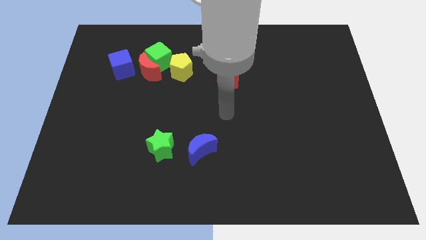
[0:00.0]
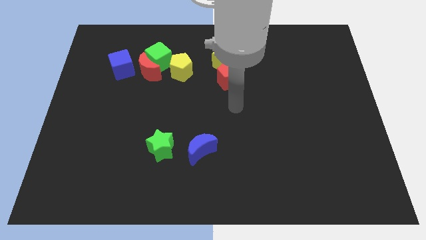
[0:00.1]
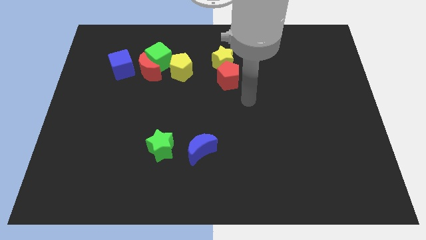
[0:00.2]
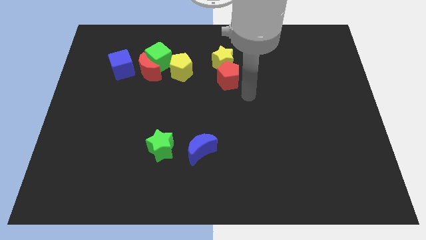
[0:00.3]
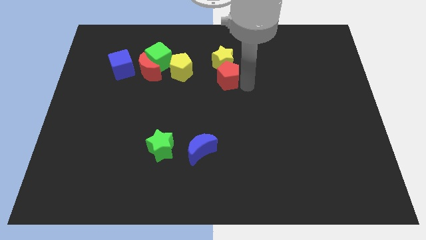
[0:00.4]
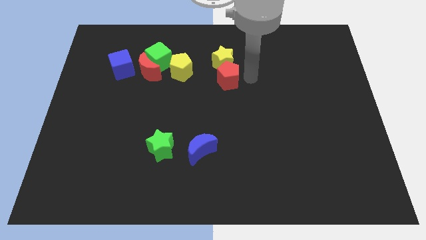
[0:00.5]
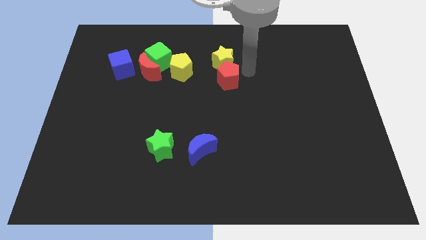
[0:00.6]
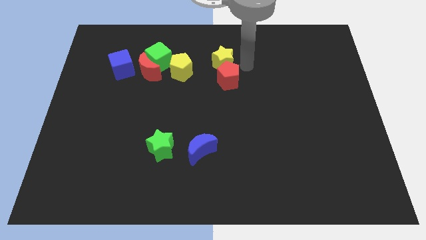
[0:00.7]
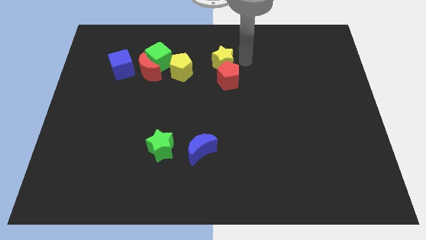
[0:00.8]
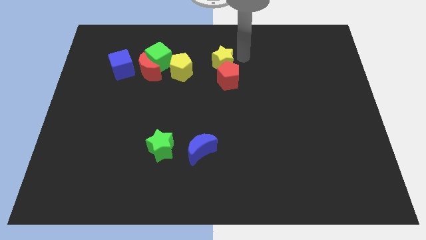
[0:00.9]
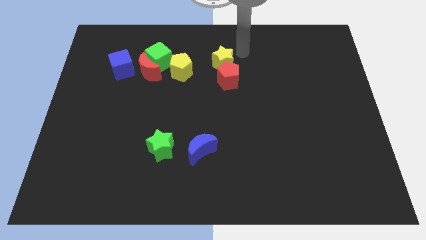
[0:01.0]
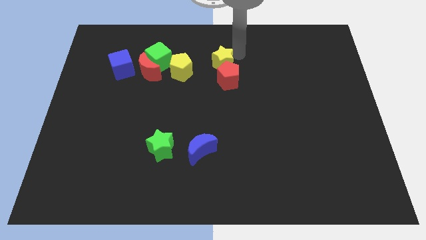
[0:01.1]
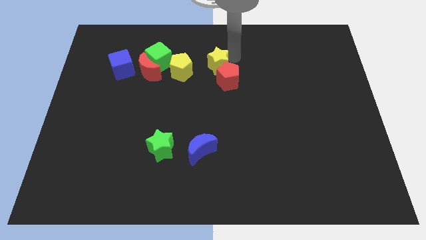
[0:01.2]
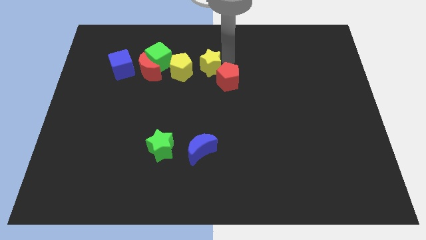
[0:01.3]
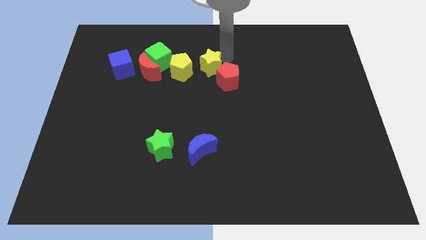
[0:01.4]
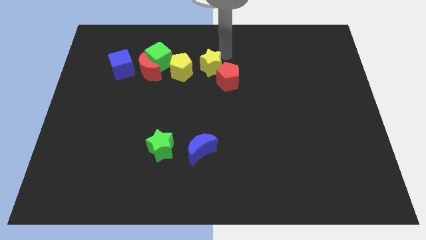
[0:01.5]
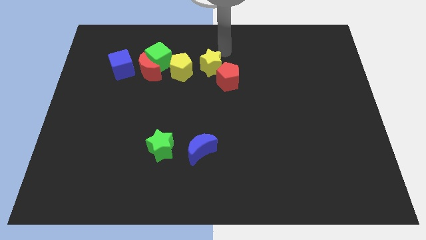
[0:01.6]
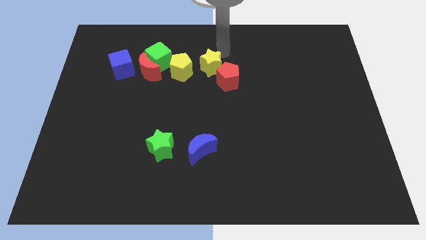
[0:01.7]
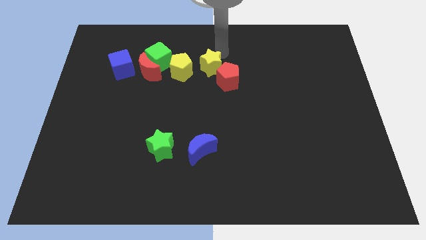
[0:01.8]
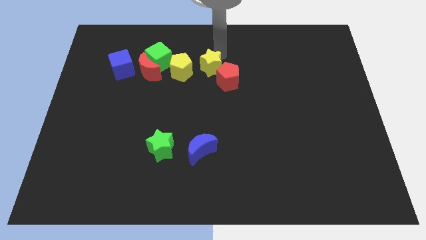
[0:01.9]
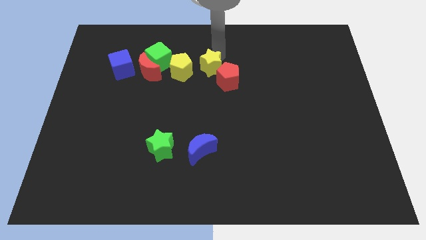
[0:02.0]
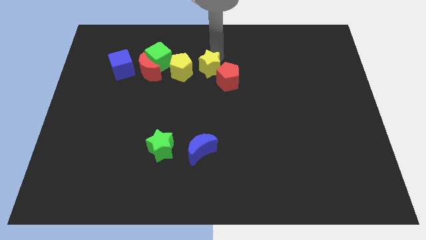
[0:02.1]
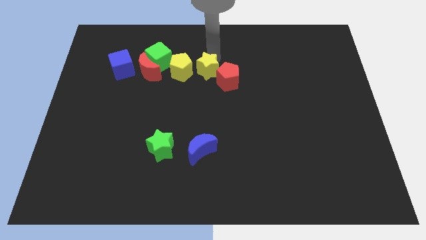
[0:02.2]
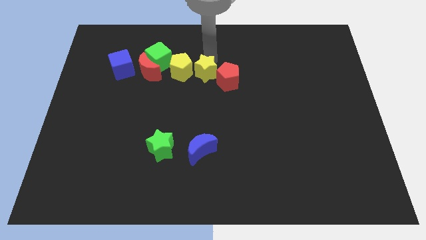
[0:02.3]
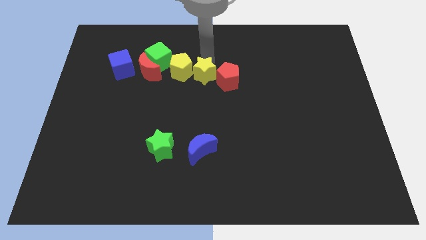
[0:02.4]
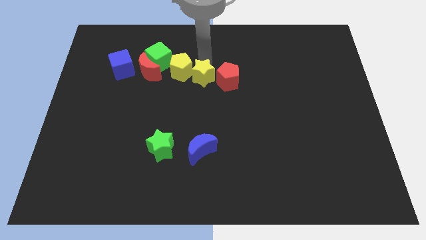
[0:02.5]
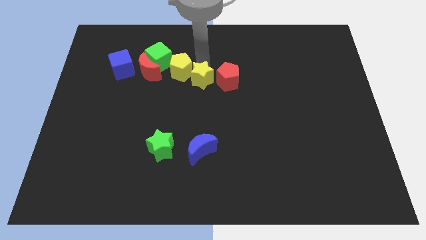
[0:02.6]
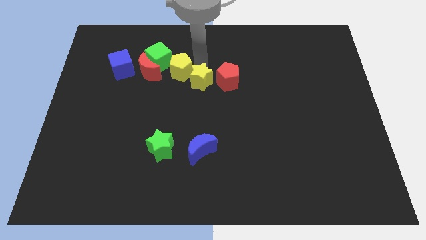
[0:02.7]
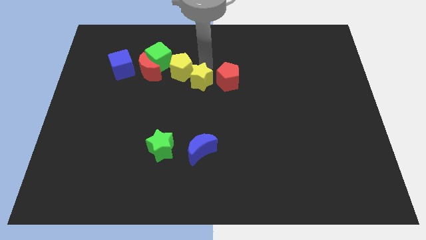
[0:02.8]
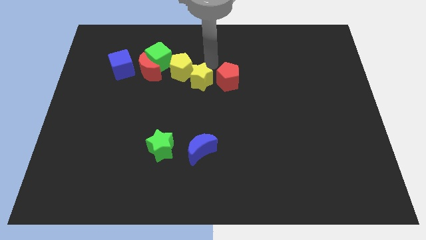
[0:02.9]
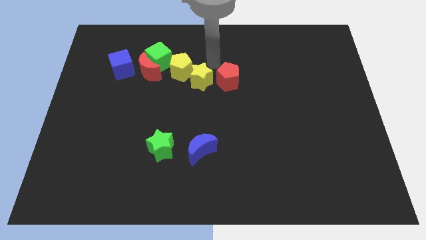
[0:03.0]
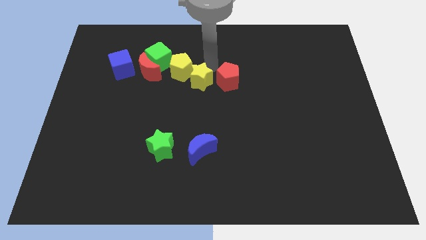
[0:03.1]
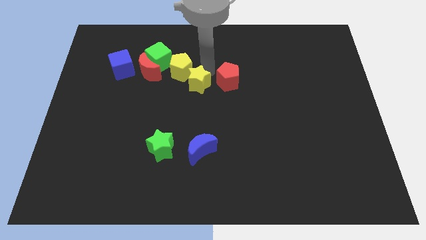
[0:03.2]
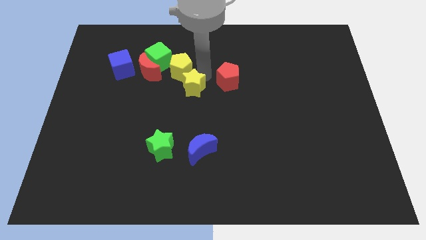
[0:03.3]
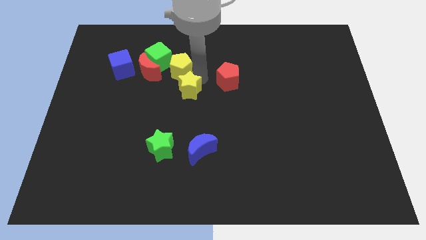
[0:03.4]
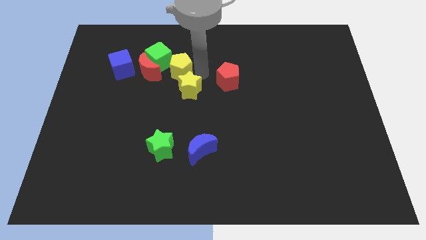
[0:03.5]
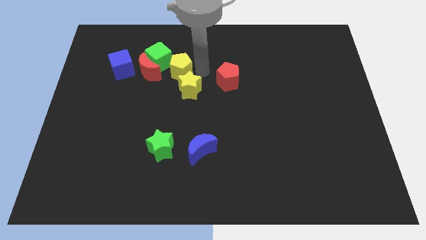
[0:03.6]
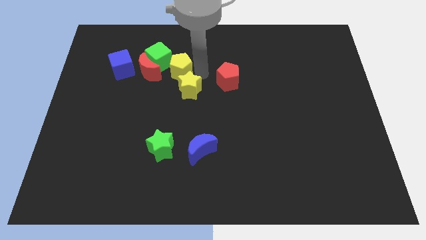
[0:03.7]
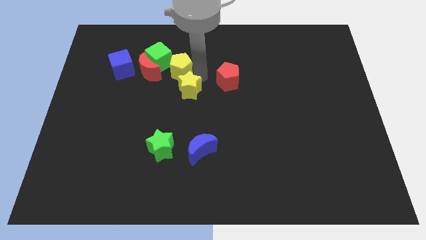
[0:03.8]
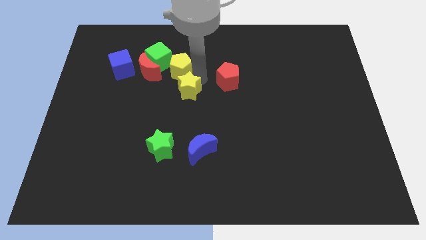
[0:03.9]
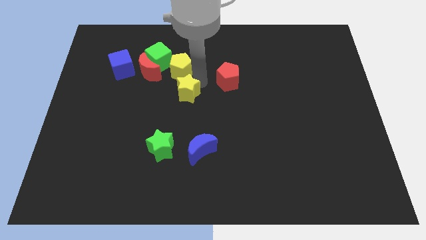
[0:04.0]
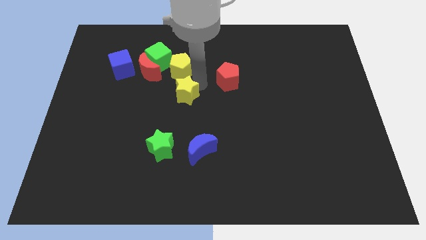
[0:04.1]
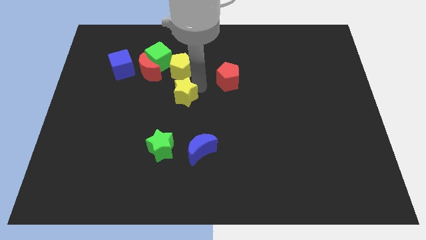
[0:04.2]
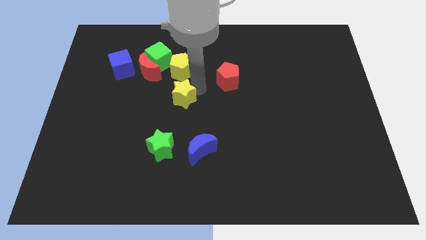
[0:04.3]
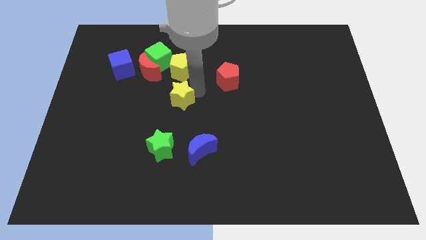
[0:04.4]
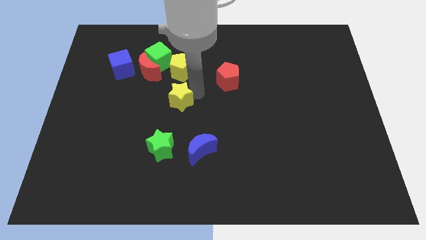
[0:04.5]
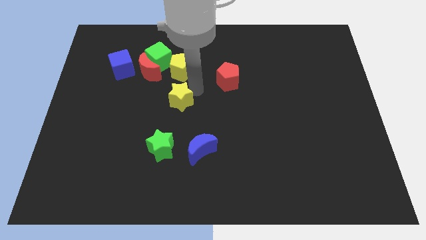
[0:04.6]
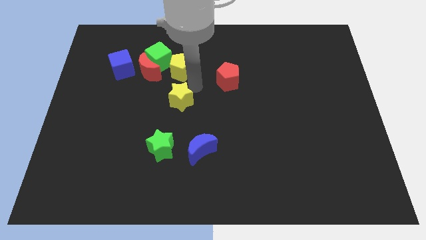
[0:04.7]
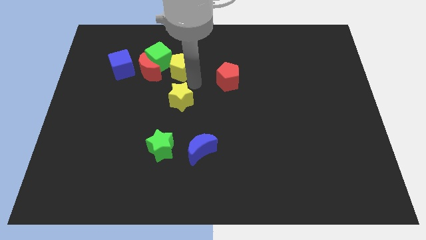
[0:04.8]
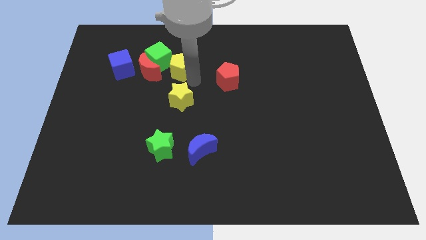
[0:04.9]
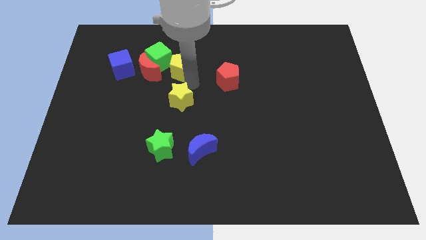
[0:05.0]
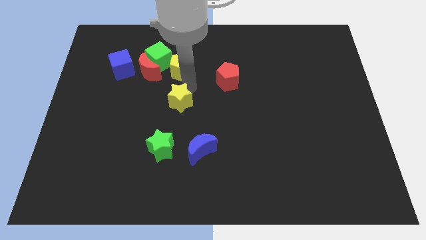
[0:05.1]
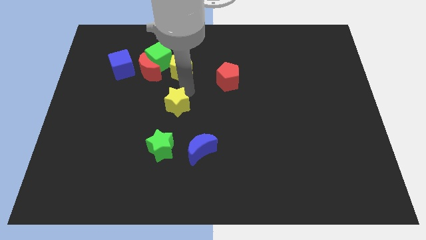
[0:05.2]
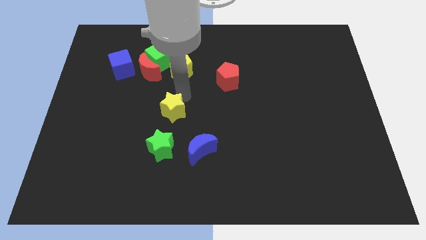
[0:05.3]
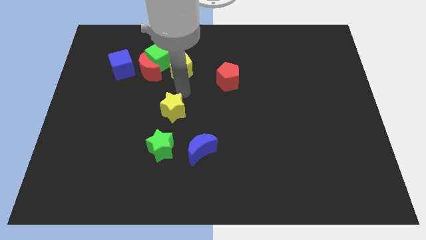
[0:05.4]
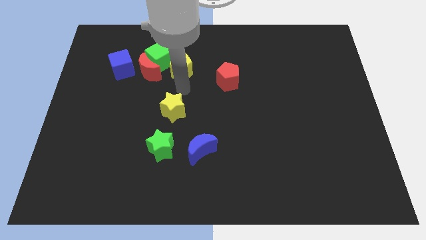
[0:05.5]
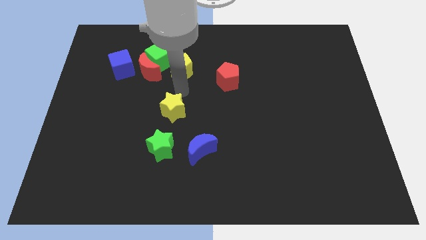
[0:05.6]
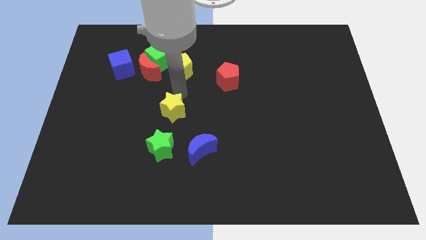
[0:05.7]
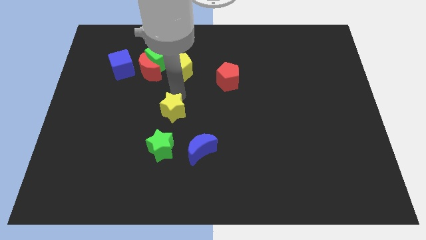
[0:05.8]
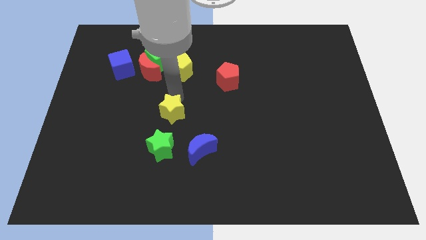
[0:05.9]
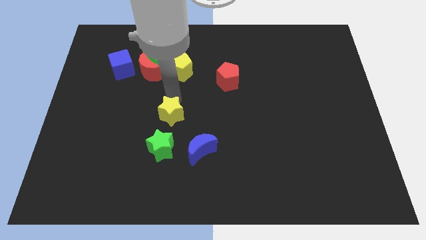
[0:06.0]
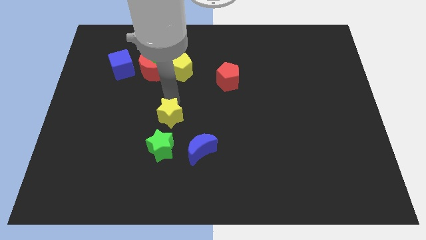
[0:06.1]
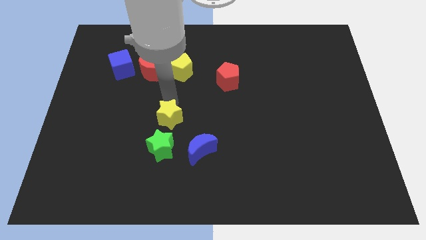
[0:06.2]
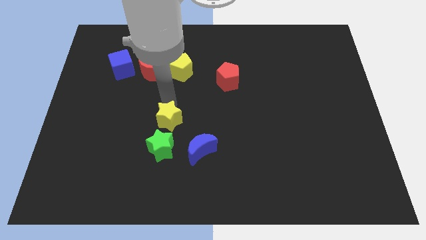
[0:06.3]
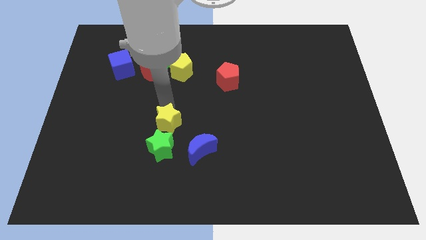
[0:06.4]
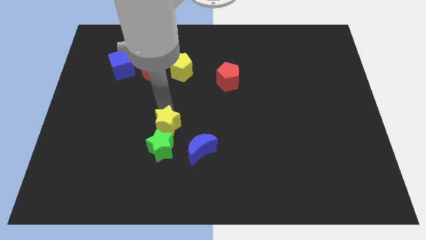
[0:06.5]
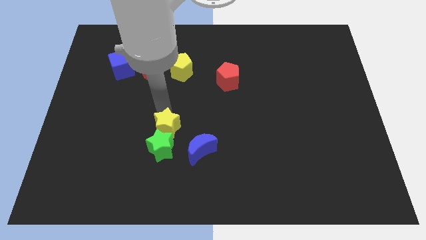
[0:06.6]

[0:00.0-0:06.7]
put the yellow star to the green star

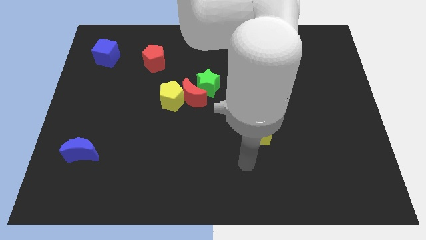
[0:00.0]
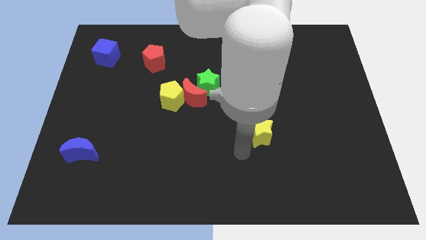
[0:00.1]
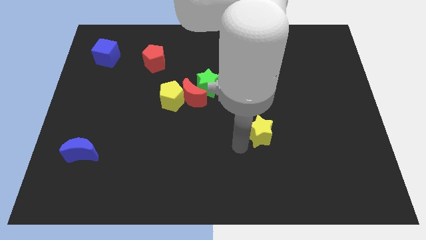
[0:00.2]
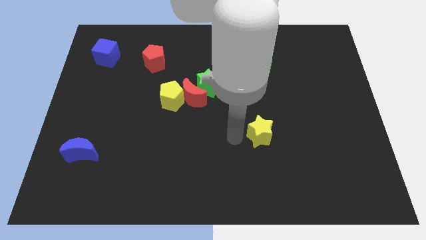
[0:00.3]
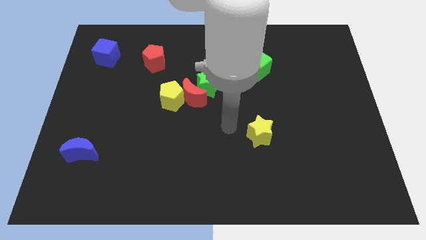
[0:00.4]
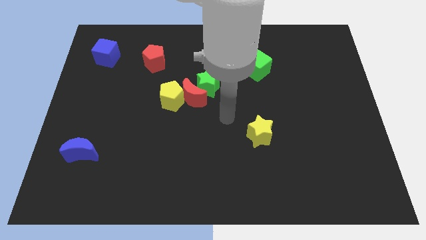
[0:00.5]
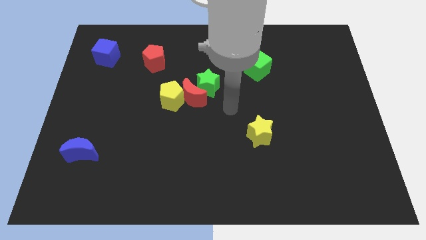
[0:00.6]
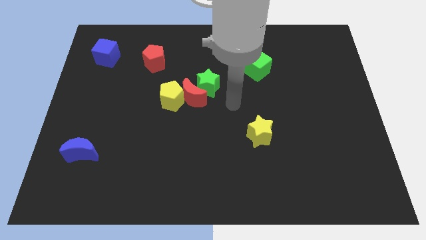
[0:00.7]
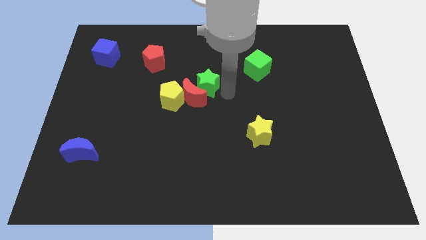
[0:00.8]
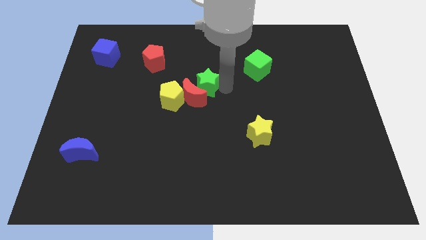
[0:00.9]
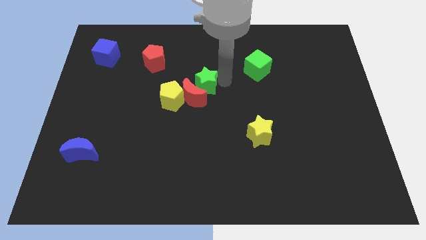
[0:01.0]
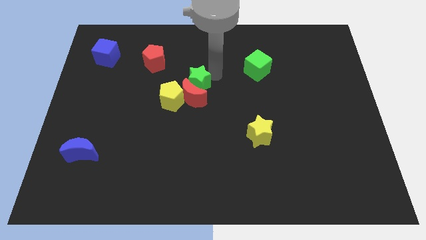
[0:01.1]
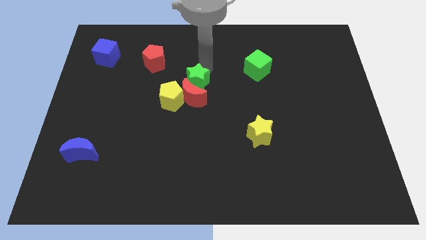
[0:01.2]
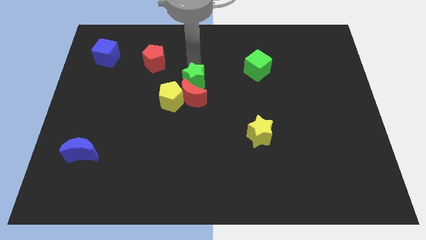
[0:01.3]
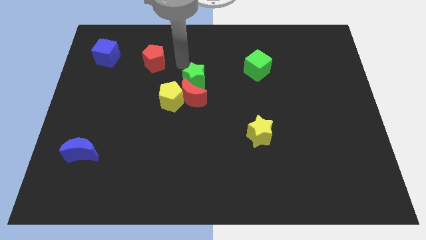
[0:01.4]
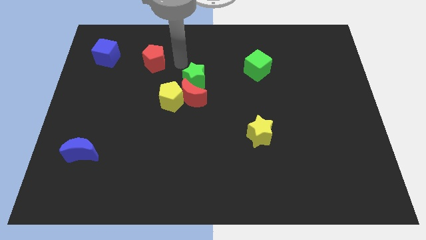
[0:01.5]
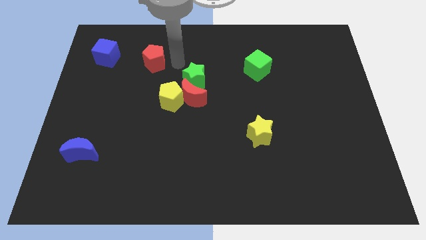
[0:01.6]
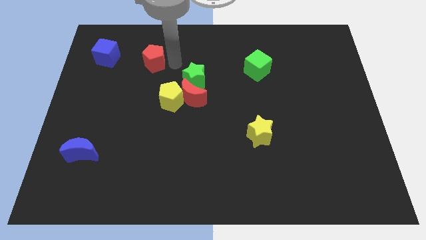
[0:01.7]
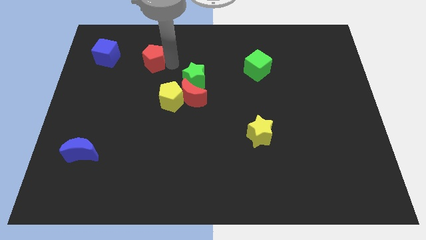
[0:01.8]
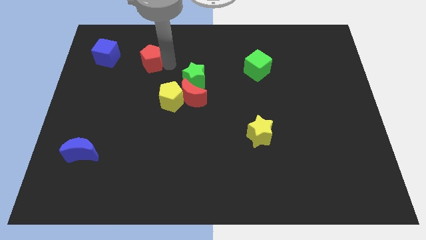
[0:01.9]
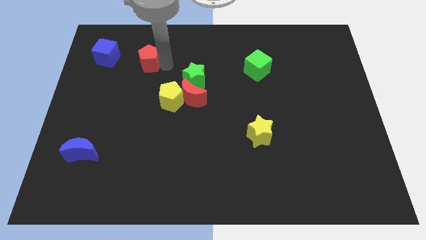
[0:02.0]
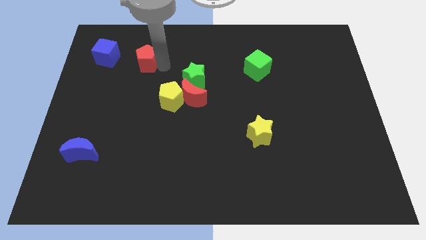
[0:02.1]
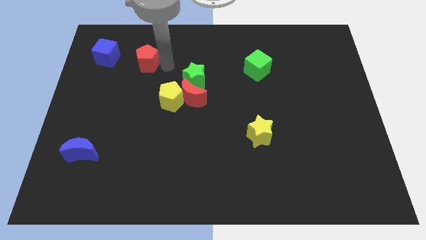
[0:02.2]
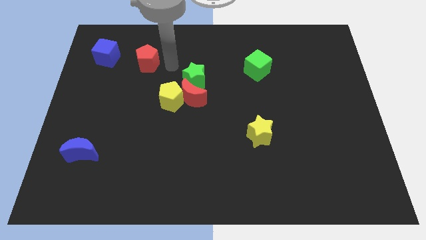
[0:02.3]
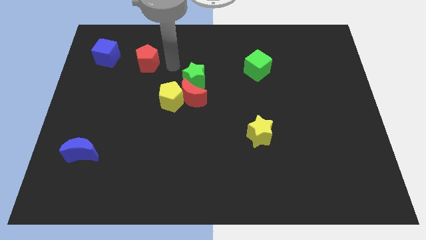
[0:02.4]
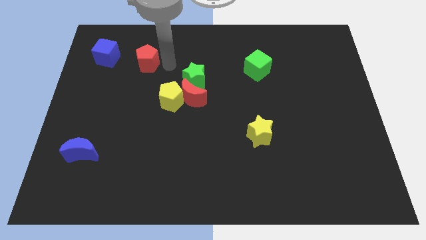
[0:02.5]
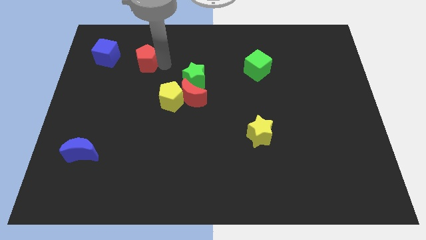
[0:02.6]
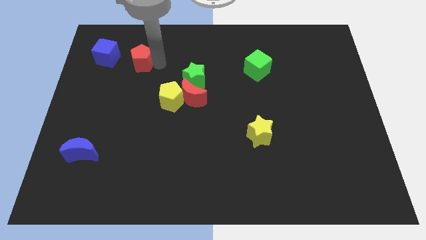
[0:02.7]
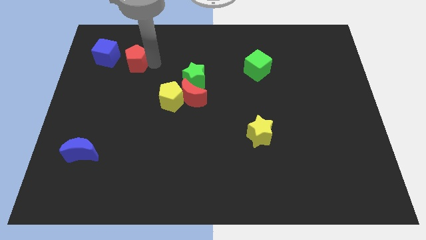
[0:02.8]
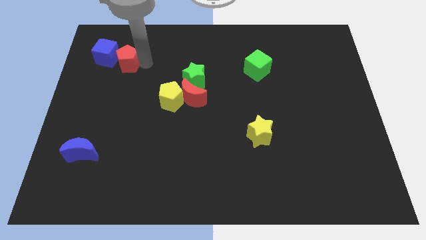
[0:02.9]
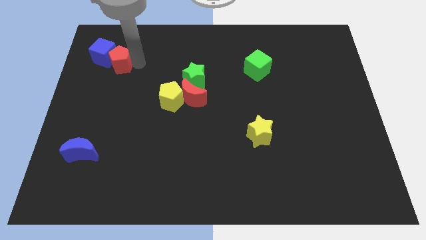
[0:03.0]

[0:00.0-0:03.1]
put the red pentagon close to the blue cube
